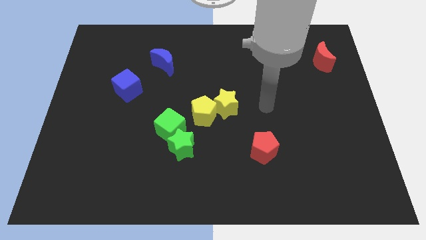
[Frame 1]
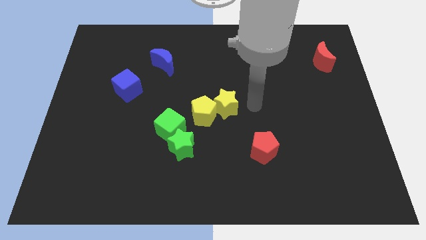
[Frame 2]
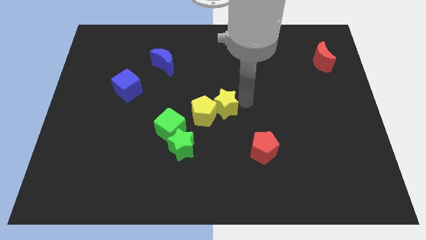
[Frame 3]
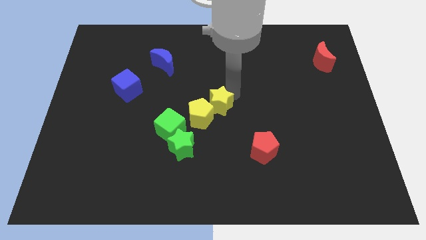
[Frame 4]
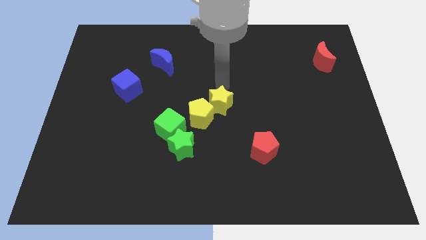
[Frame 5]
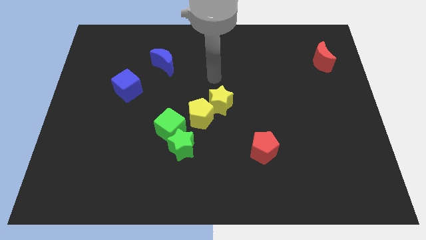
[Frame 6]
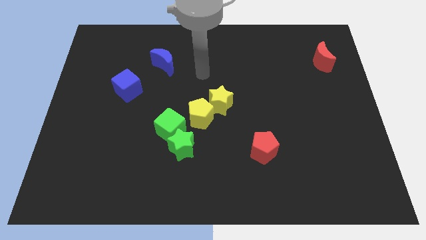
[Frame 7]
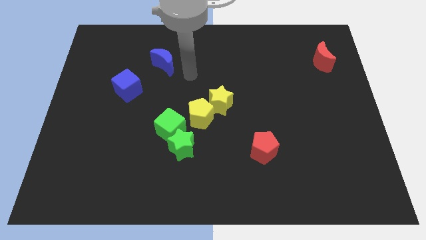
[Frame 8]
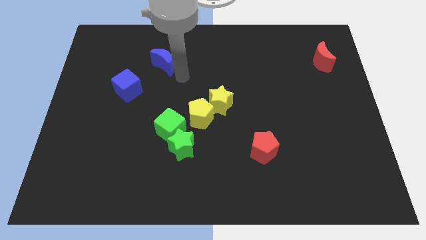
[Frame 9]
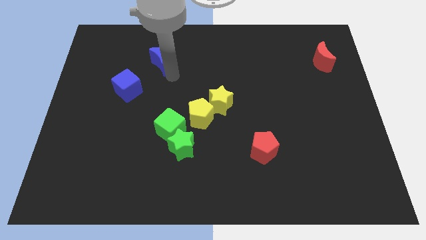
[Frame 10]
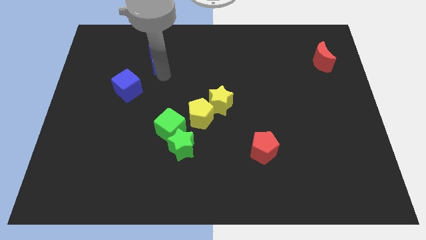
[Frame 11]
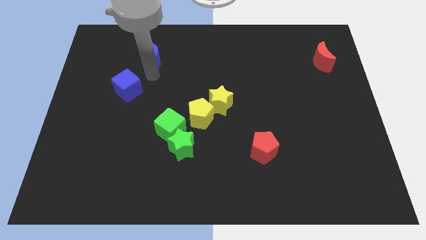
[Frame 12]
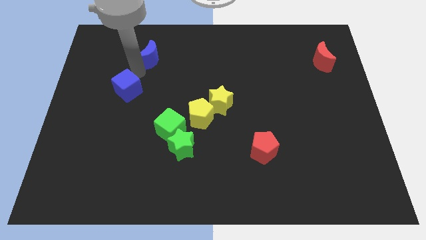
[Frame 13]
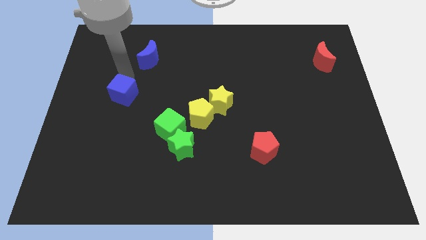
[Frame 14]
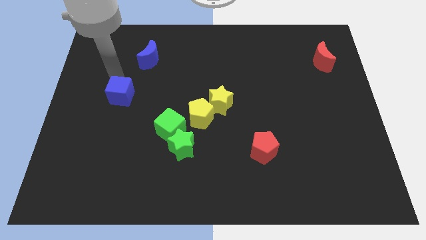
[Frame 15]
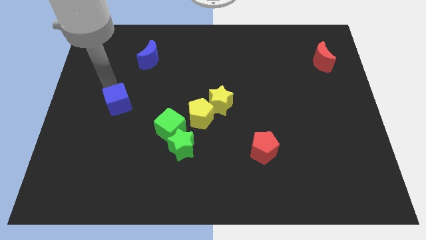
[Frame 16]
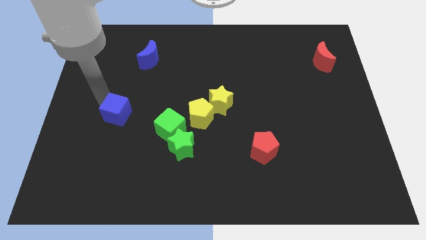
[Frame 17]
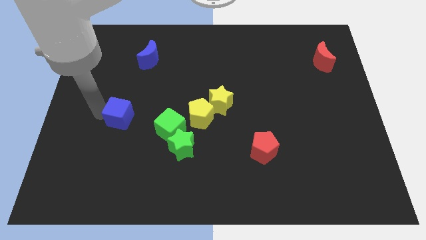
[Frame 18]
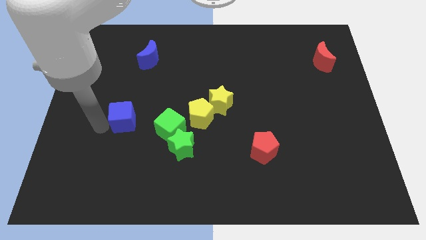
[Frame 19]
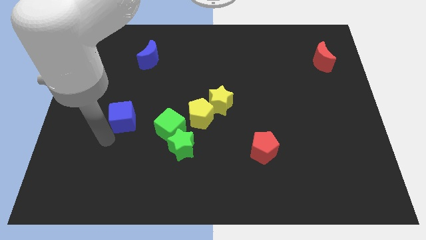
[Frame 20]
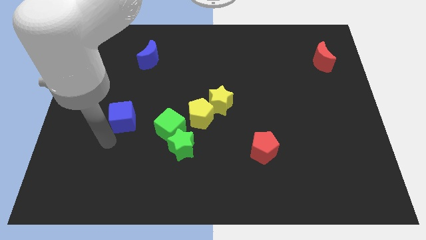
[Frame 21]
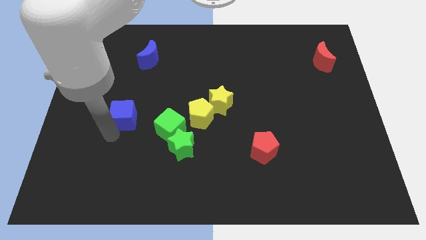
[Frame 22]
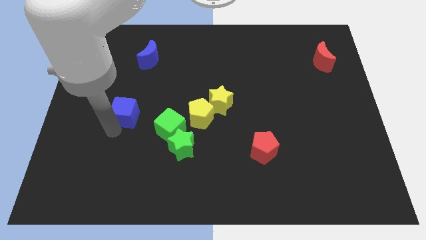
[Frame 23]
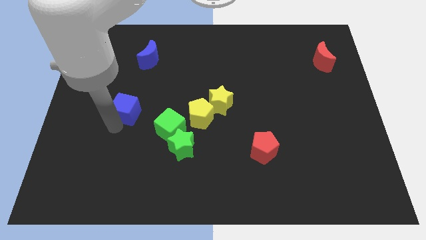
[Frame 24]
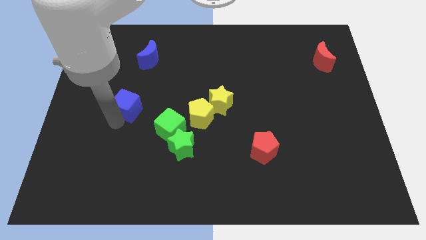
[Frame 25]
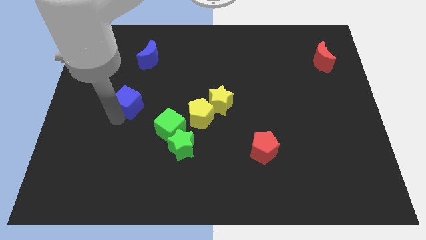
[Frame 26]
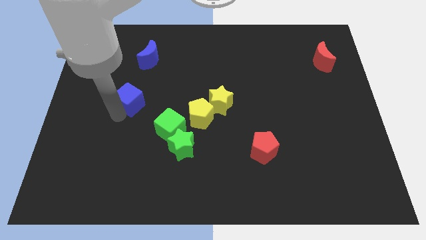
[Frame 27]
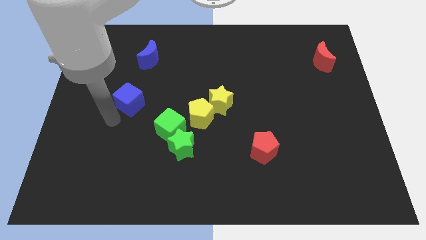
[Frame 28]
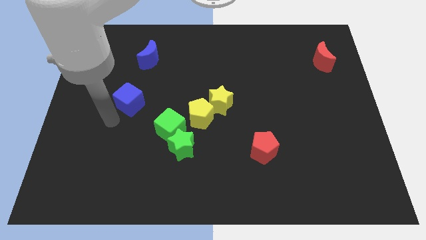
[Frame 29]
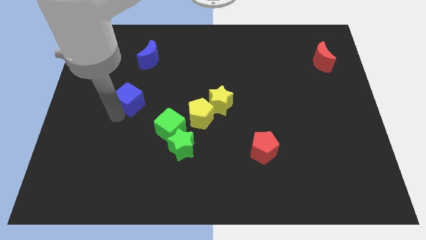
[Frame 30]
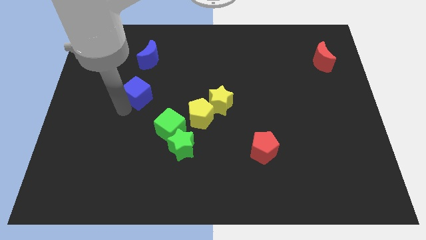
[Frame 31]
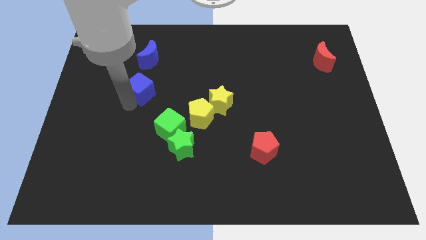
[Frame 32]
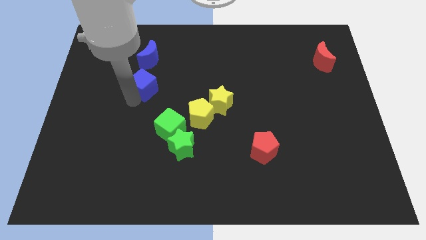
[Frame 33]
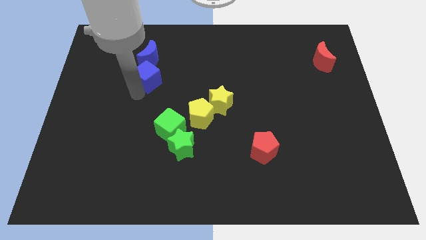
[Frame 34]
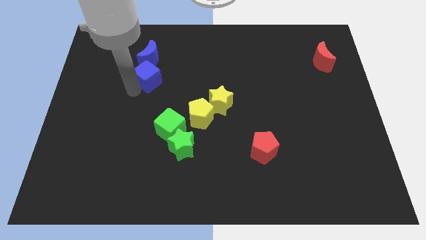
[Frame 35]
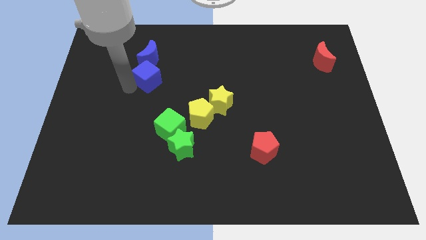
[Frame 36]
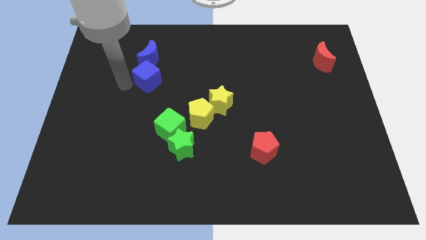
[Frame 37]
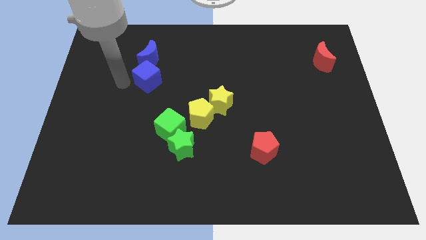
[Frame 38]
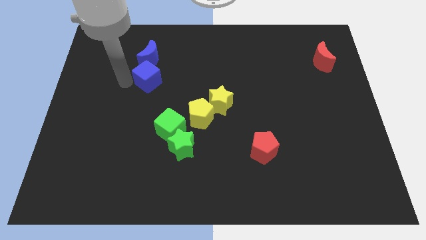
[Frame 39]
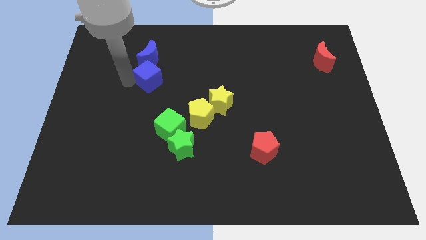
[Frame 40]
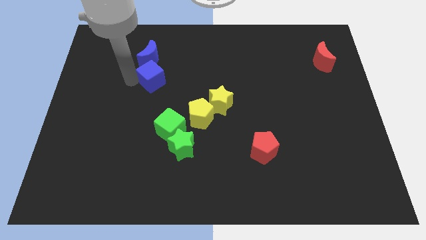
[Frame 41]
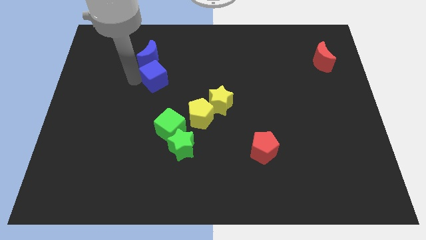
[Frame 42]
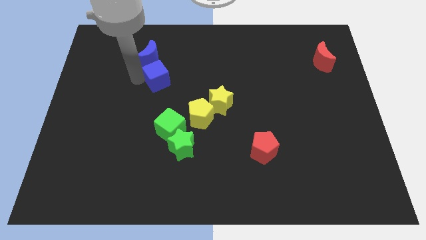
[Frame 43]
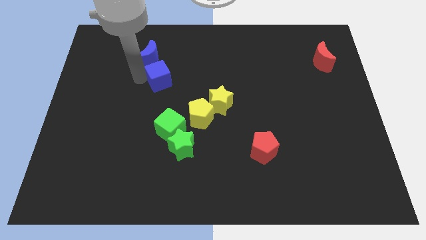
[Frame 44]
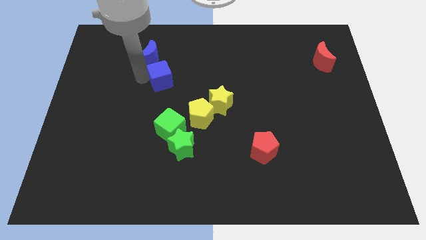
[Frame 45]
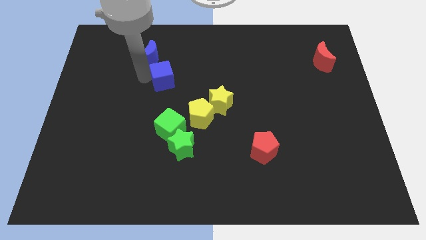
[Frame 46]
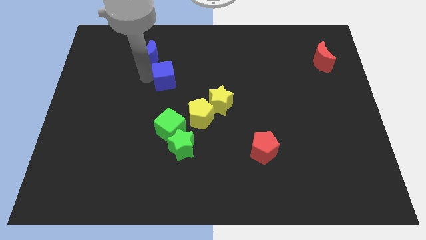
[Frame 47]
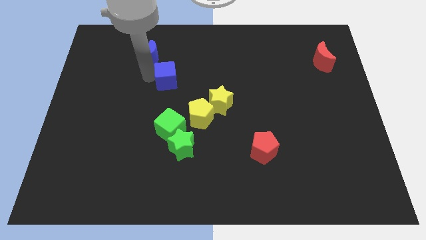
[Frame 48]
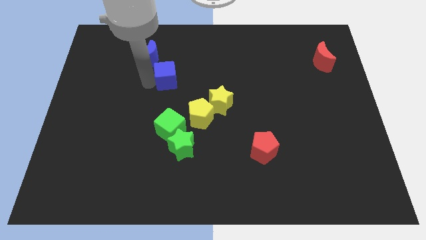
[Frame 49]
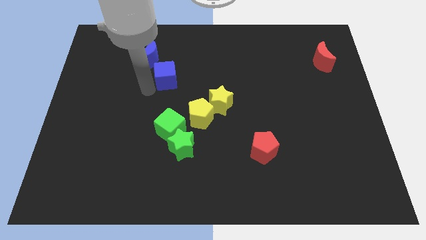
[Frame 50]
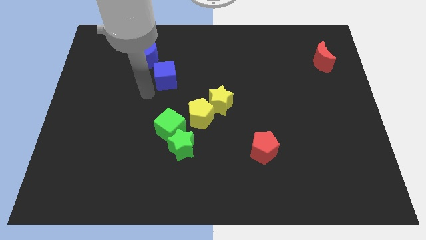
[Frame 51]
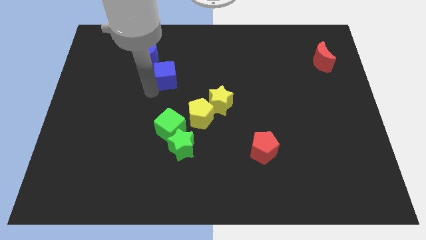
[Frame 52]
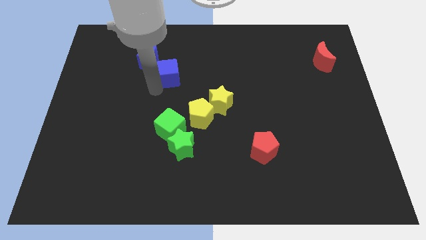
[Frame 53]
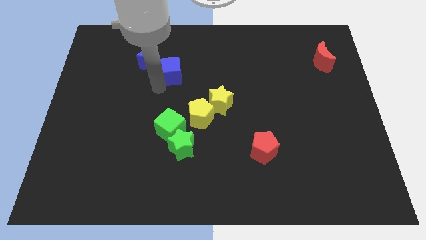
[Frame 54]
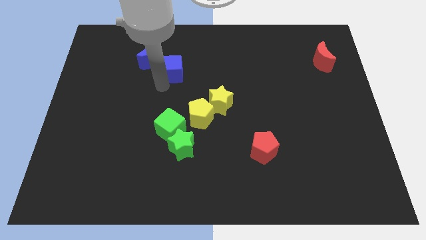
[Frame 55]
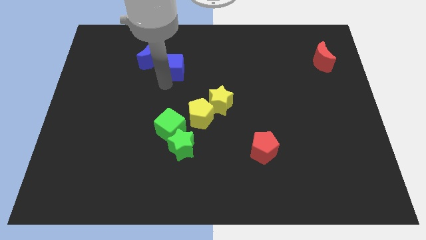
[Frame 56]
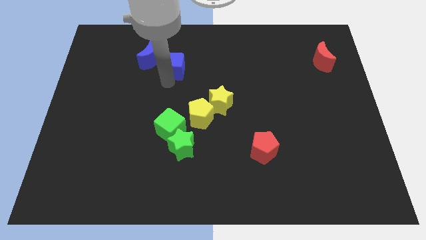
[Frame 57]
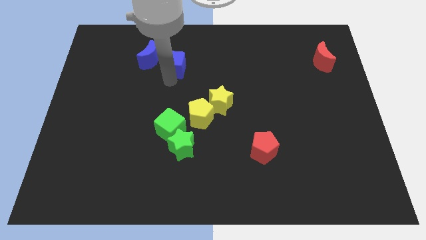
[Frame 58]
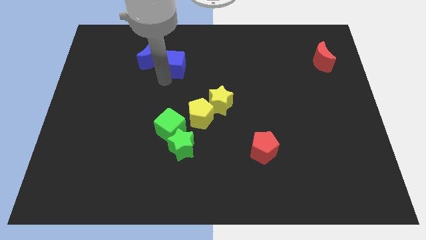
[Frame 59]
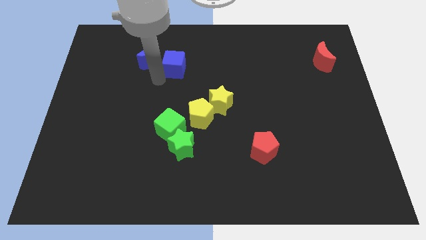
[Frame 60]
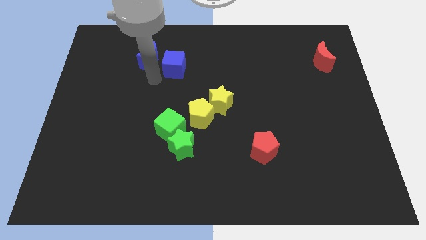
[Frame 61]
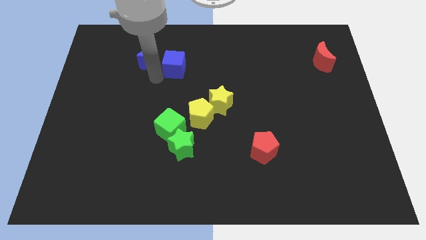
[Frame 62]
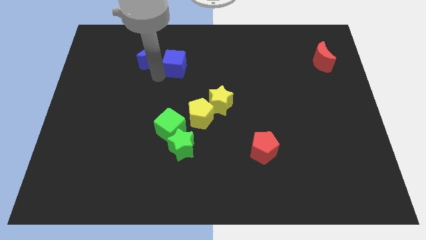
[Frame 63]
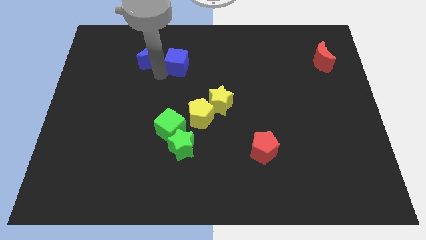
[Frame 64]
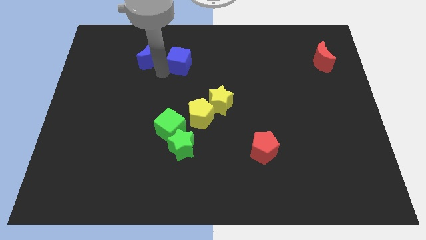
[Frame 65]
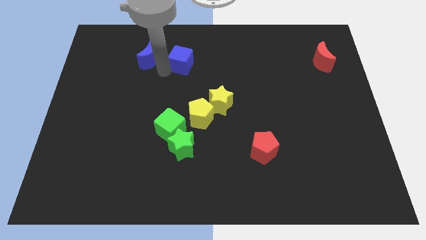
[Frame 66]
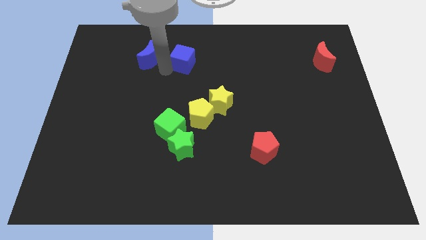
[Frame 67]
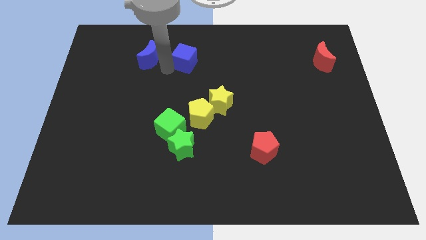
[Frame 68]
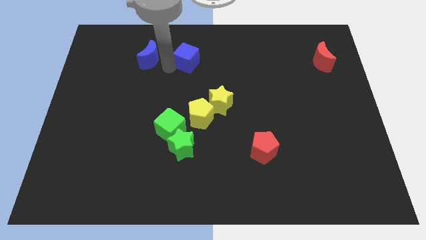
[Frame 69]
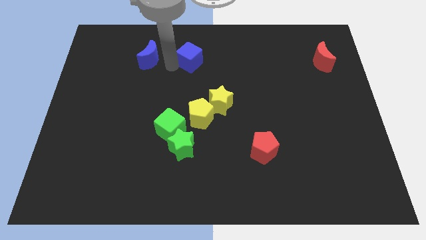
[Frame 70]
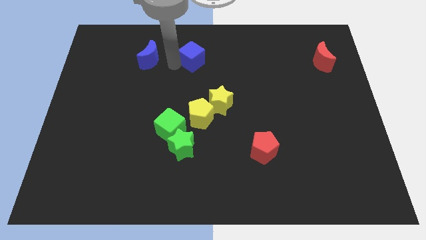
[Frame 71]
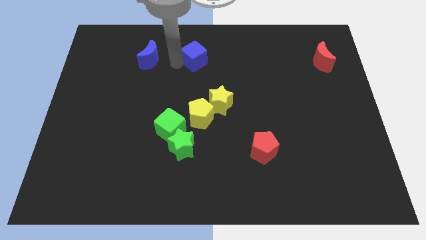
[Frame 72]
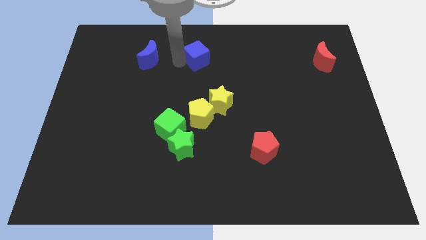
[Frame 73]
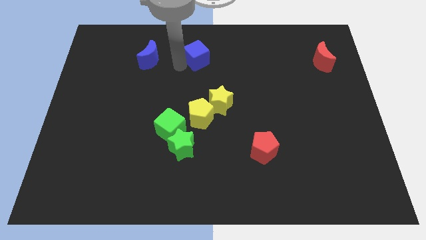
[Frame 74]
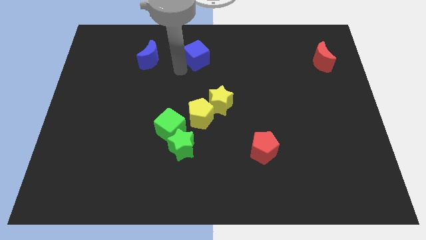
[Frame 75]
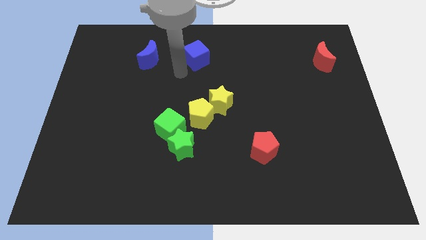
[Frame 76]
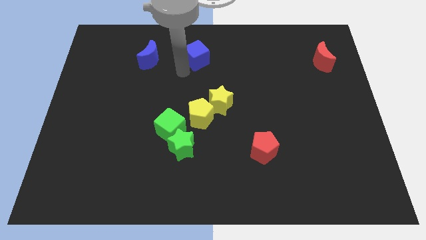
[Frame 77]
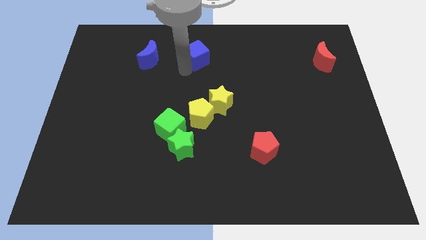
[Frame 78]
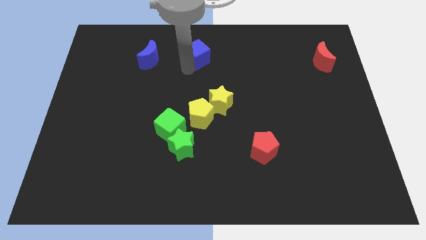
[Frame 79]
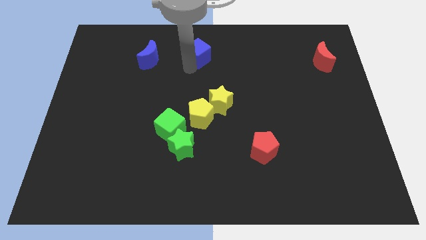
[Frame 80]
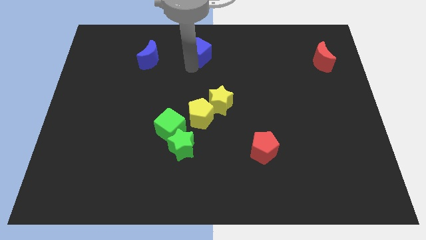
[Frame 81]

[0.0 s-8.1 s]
move the blue cube to the towards your base
